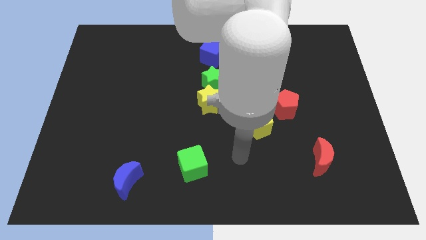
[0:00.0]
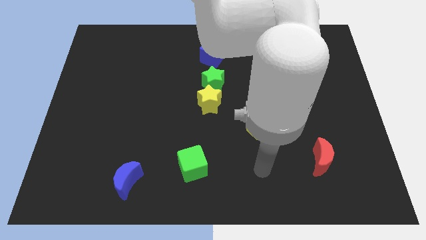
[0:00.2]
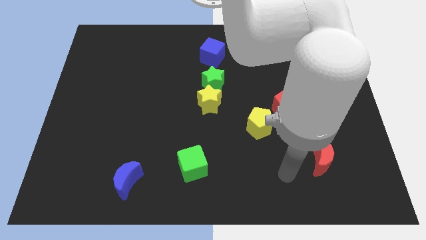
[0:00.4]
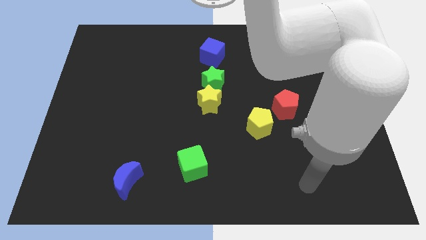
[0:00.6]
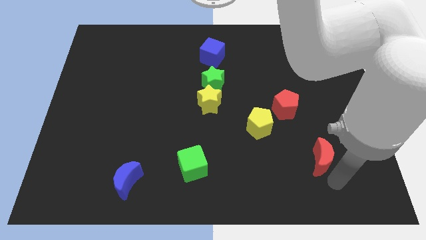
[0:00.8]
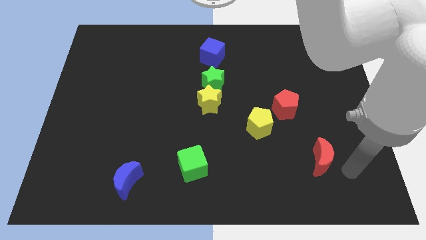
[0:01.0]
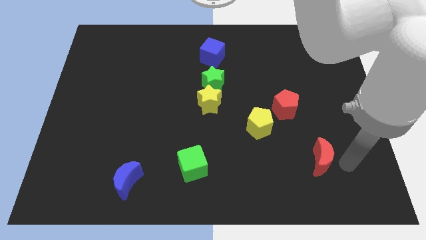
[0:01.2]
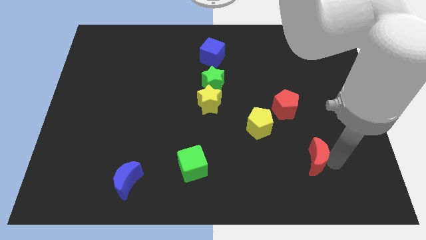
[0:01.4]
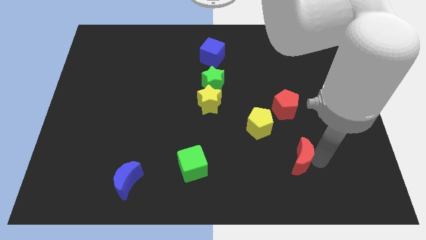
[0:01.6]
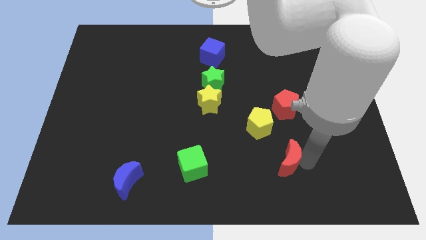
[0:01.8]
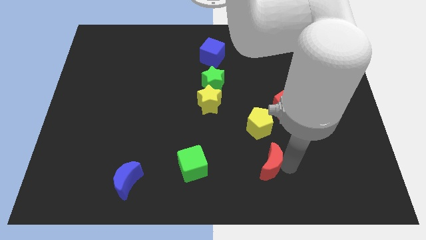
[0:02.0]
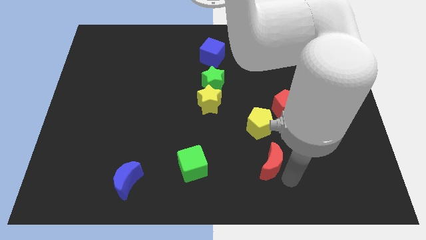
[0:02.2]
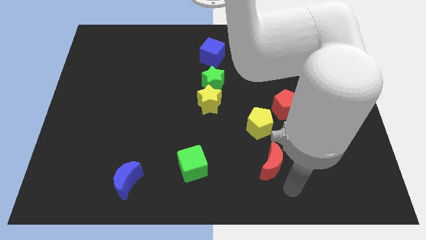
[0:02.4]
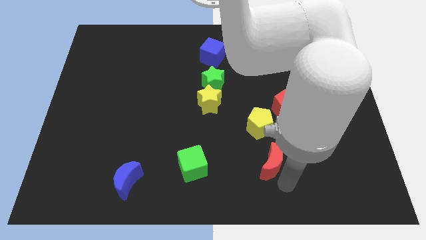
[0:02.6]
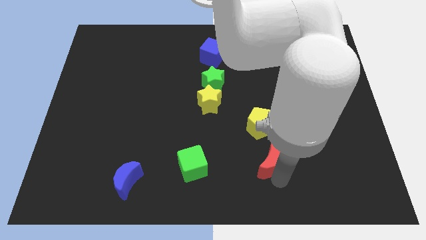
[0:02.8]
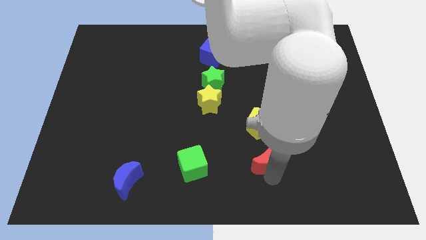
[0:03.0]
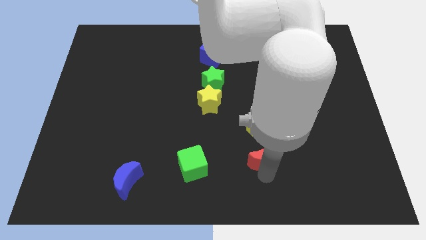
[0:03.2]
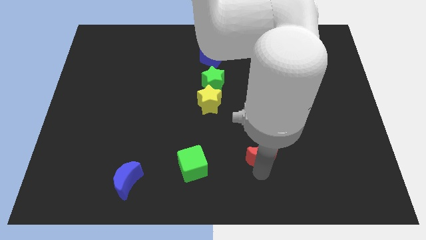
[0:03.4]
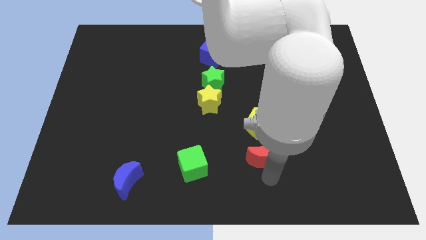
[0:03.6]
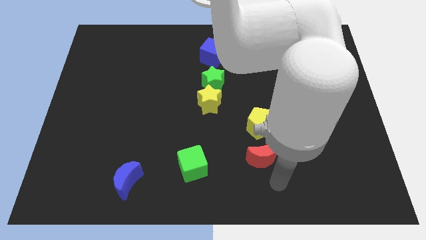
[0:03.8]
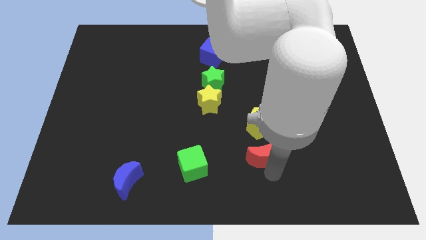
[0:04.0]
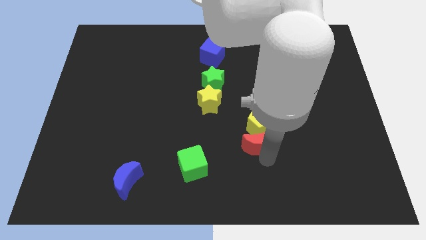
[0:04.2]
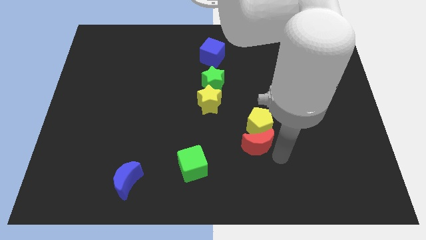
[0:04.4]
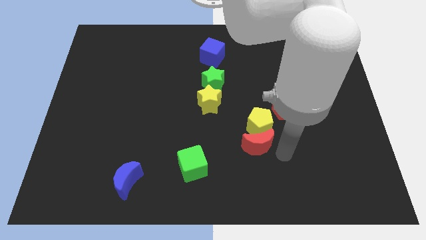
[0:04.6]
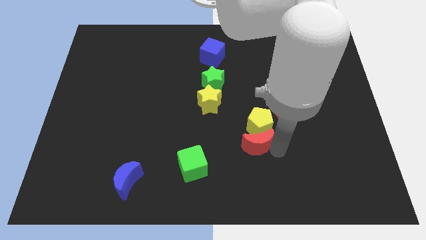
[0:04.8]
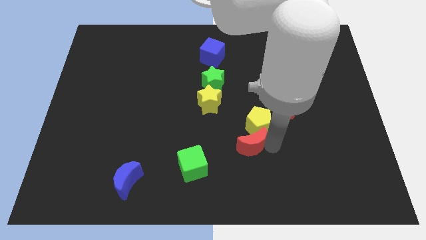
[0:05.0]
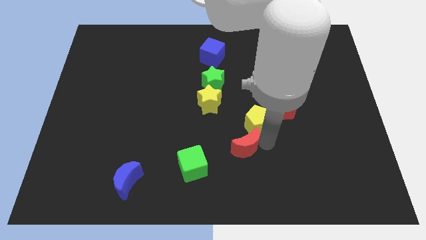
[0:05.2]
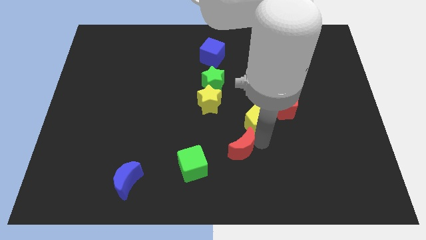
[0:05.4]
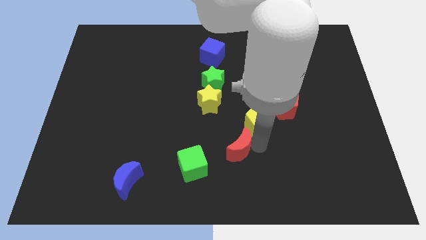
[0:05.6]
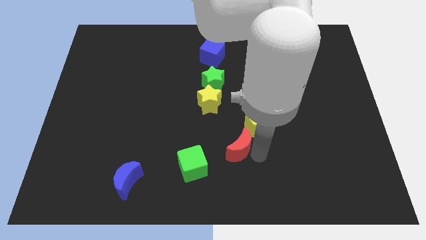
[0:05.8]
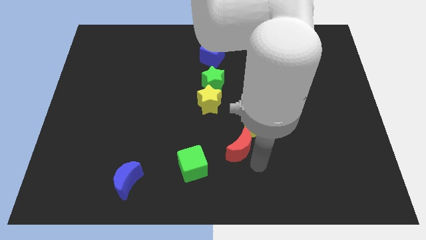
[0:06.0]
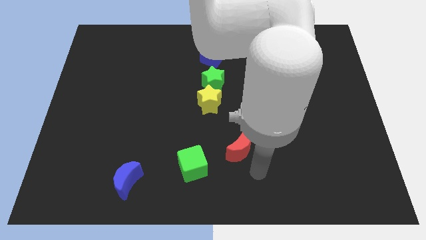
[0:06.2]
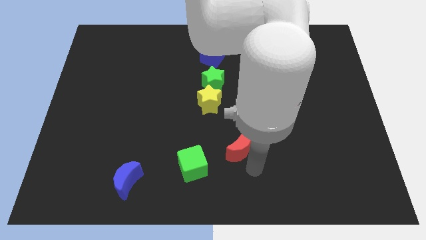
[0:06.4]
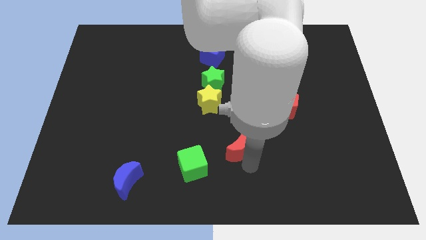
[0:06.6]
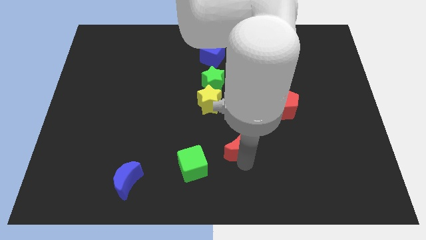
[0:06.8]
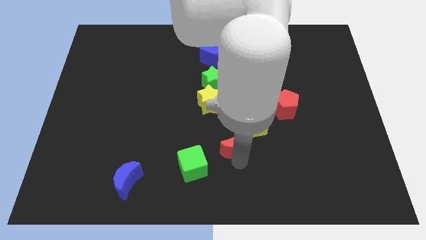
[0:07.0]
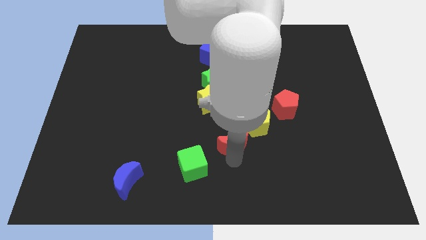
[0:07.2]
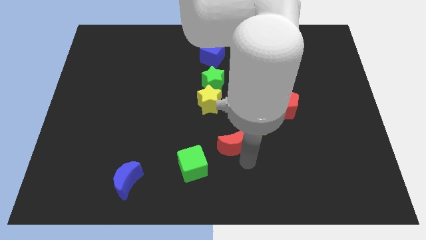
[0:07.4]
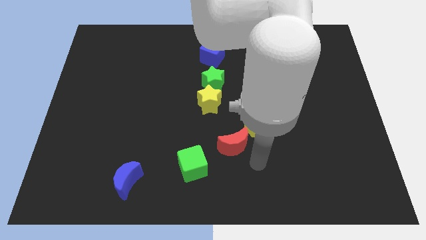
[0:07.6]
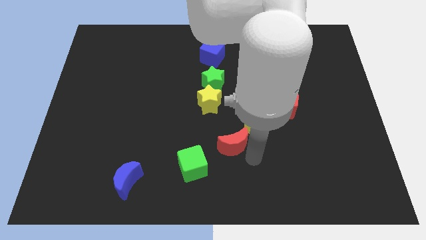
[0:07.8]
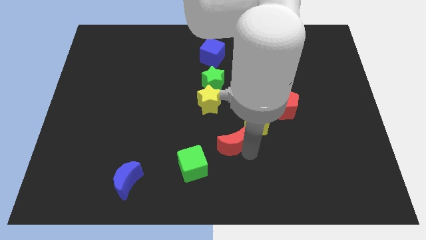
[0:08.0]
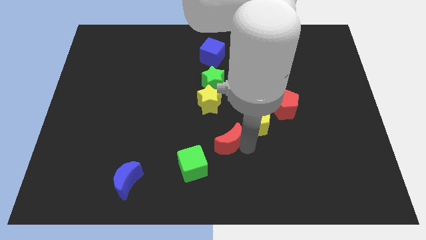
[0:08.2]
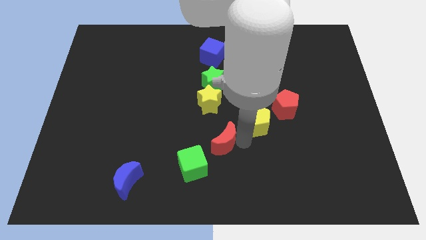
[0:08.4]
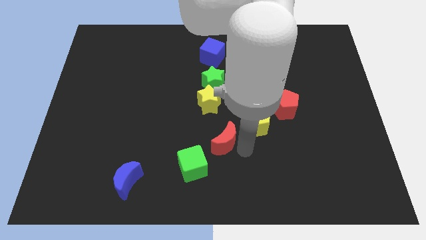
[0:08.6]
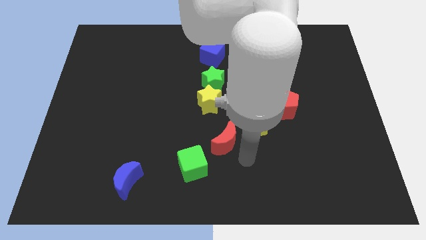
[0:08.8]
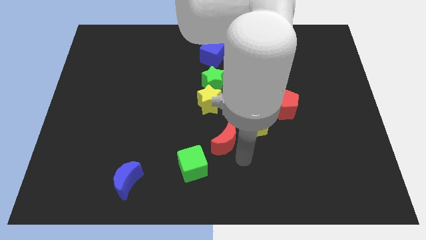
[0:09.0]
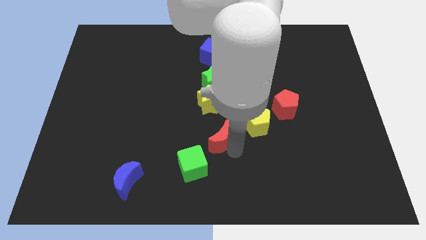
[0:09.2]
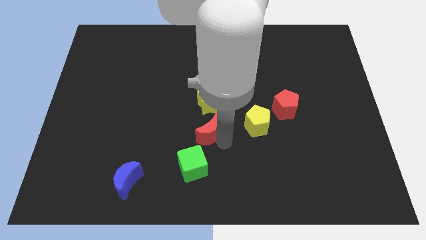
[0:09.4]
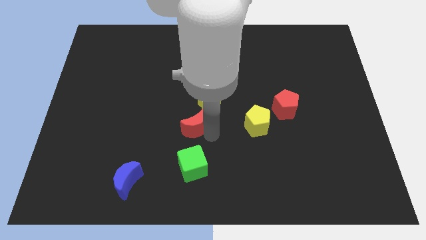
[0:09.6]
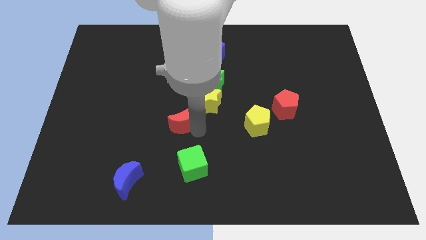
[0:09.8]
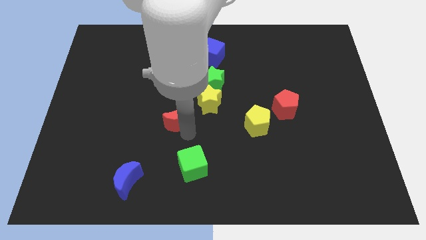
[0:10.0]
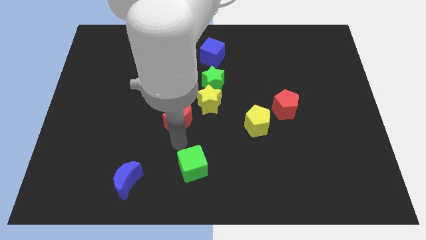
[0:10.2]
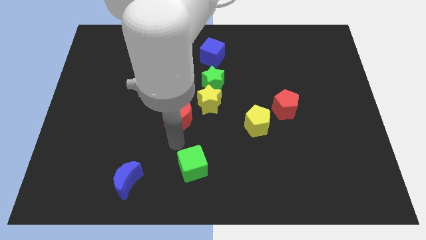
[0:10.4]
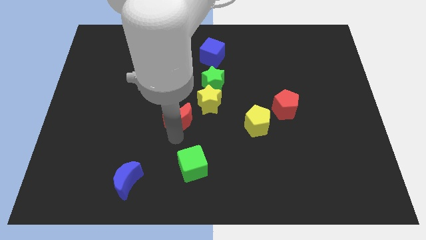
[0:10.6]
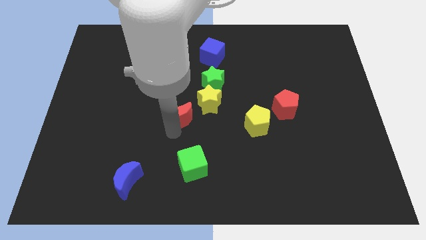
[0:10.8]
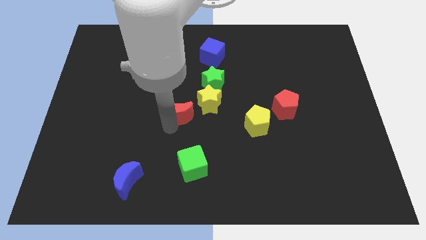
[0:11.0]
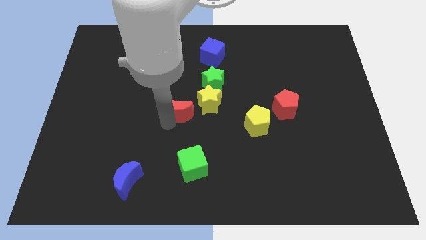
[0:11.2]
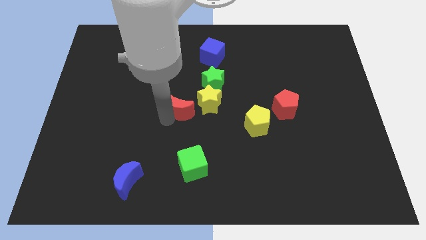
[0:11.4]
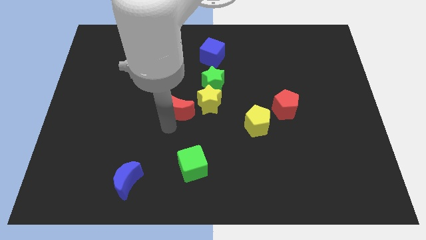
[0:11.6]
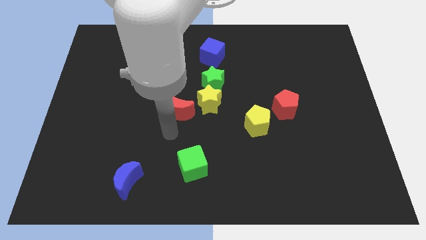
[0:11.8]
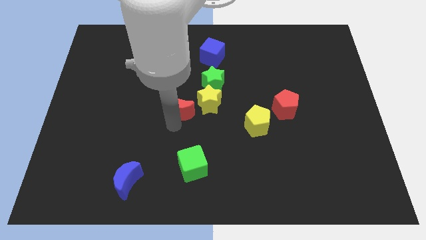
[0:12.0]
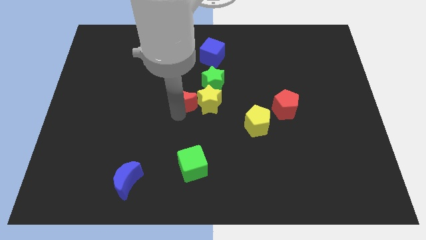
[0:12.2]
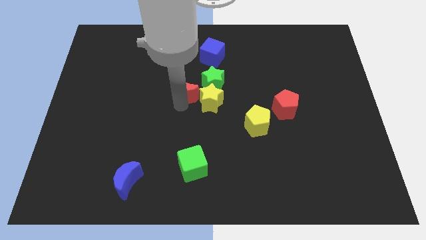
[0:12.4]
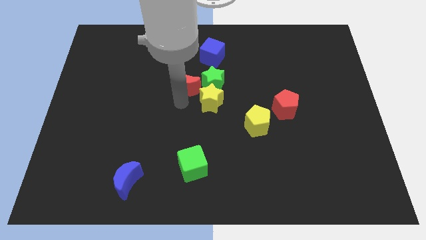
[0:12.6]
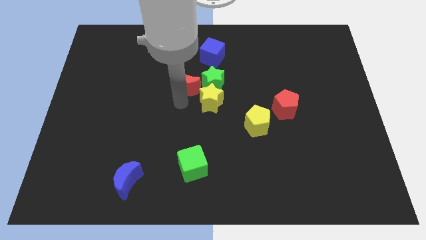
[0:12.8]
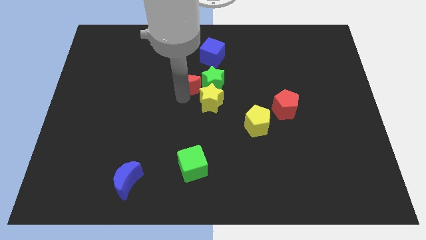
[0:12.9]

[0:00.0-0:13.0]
move the red moon diagonally down and to the left of the blue cube

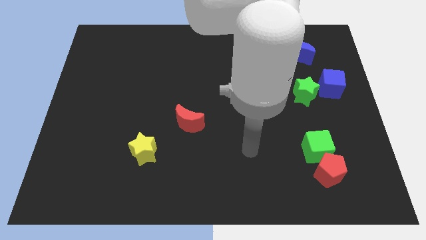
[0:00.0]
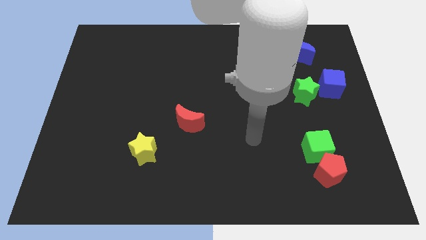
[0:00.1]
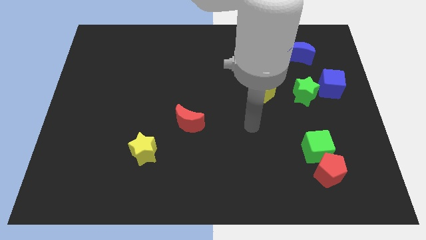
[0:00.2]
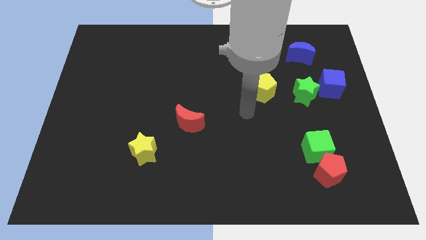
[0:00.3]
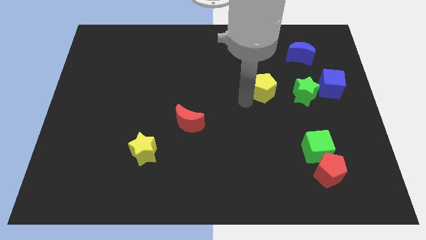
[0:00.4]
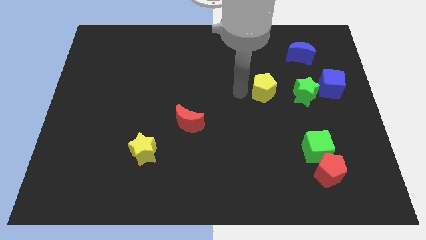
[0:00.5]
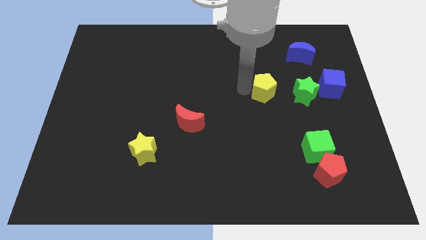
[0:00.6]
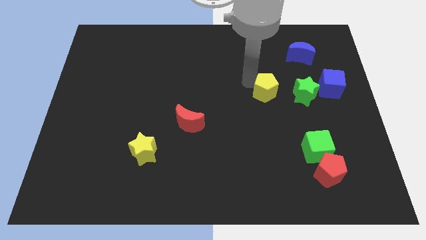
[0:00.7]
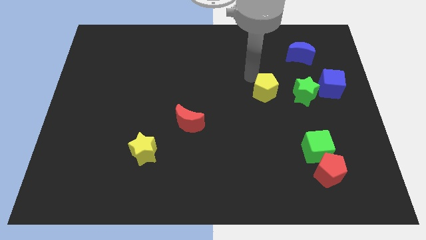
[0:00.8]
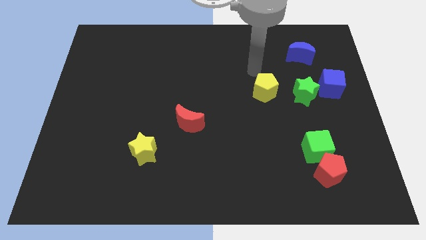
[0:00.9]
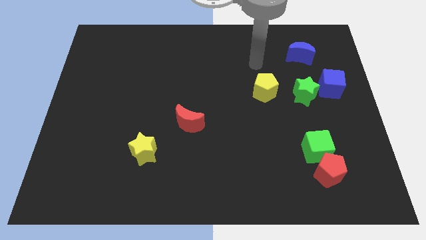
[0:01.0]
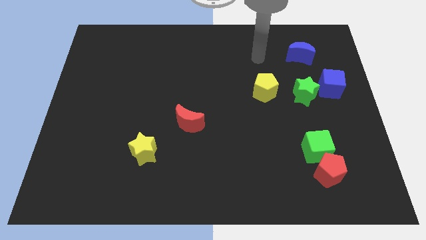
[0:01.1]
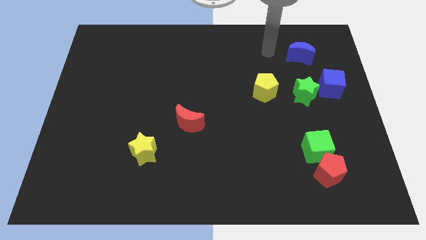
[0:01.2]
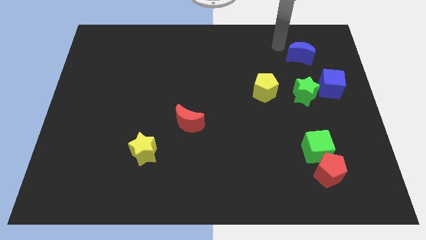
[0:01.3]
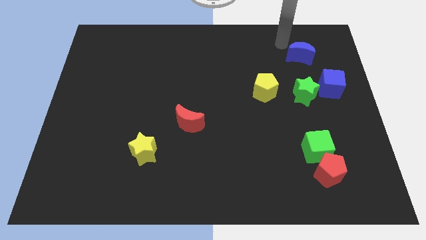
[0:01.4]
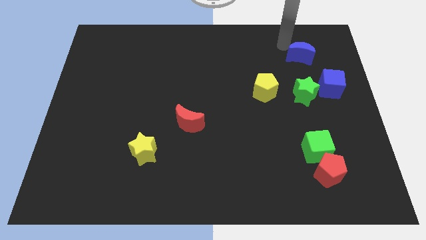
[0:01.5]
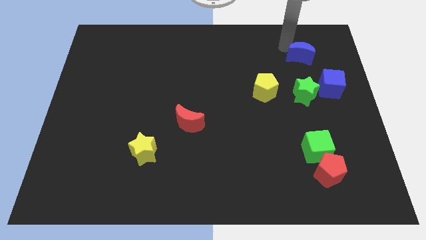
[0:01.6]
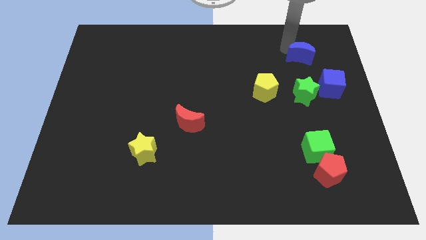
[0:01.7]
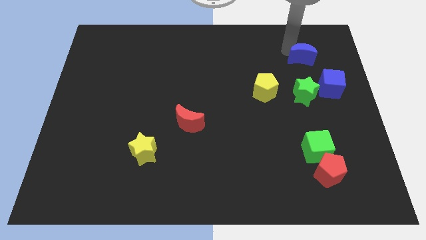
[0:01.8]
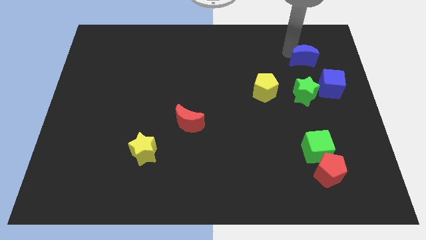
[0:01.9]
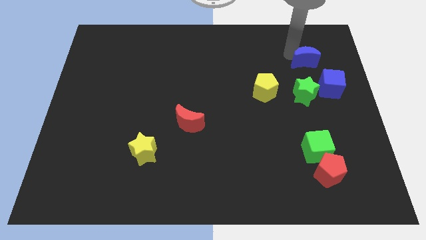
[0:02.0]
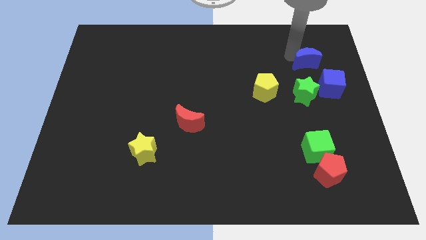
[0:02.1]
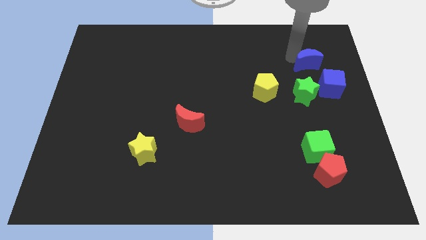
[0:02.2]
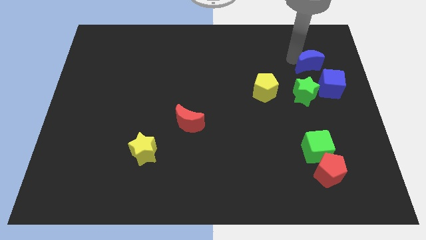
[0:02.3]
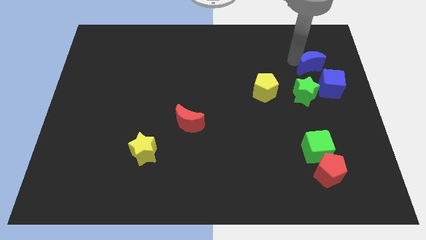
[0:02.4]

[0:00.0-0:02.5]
slide the blue moon to the top right side of the green star
